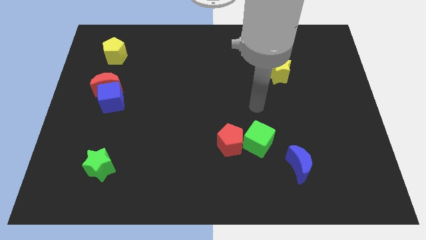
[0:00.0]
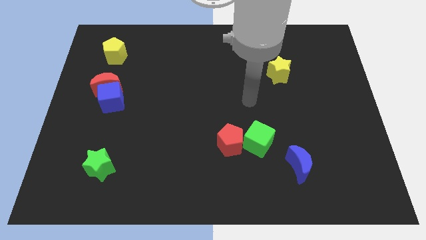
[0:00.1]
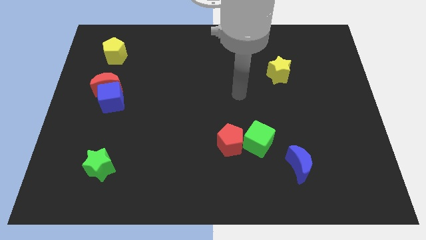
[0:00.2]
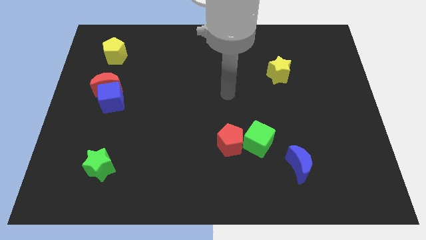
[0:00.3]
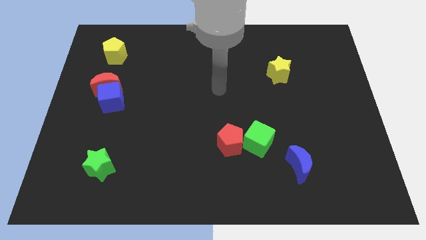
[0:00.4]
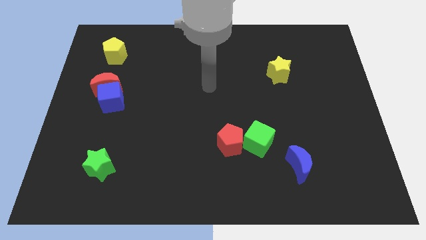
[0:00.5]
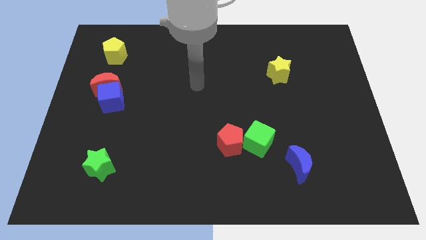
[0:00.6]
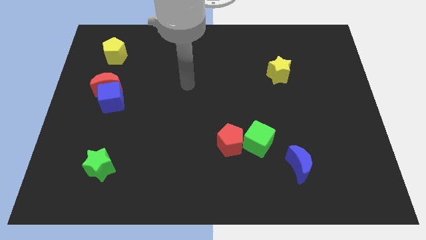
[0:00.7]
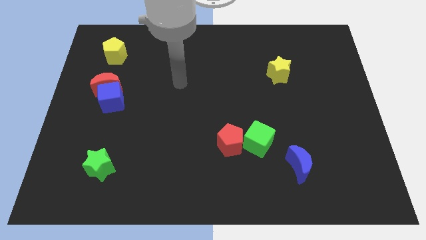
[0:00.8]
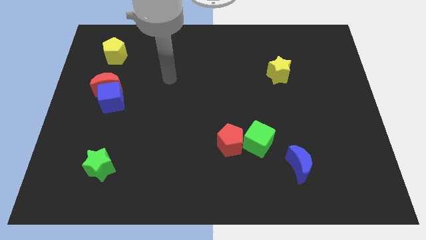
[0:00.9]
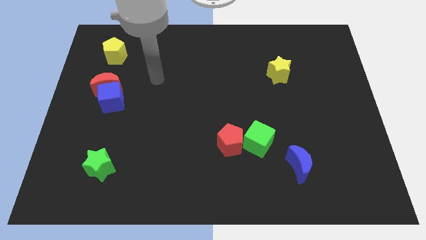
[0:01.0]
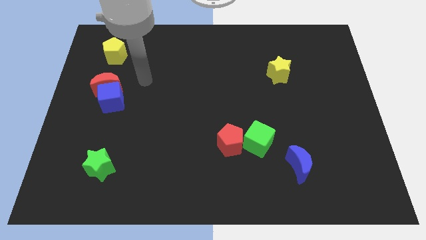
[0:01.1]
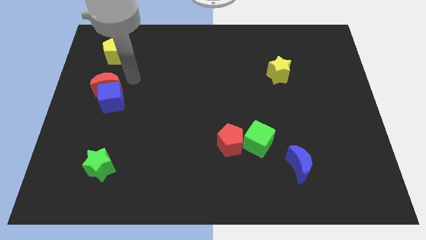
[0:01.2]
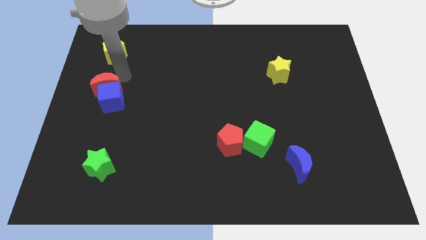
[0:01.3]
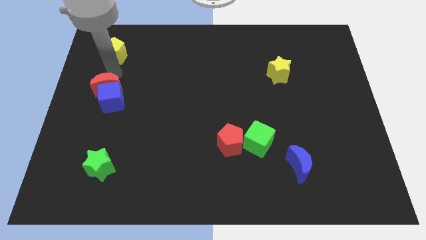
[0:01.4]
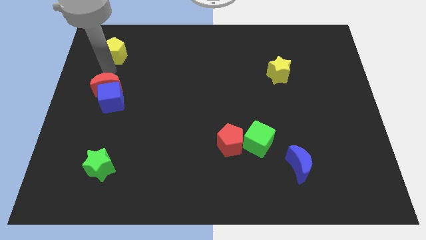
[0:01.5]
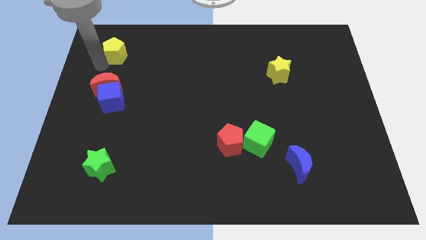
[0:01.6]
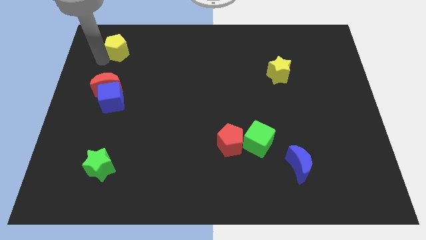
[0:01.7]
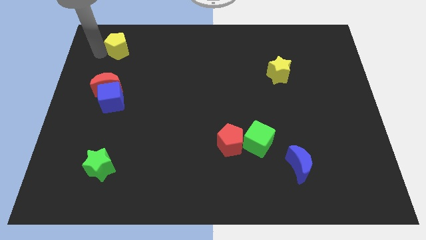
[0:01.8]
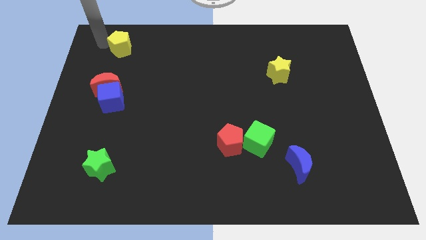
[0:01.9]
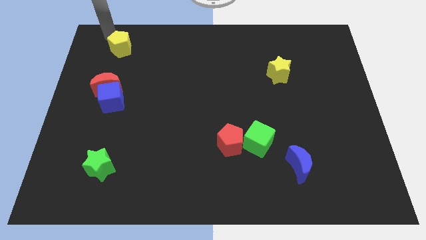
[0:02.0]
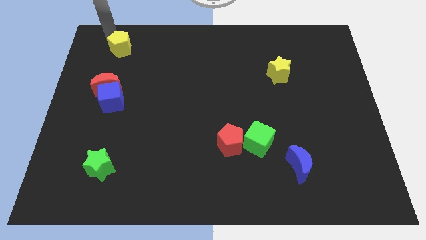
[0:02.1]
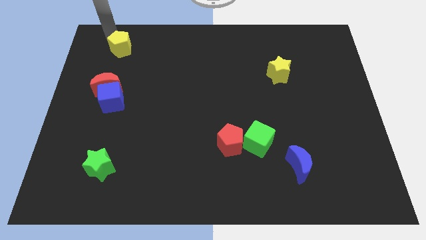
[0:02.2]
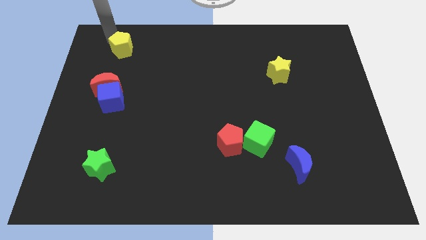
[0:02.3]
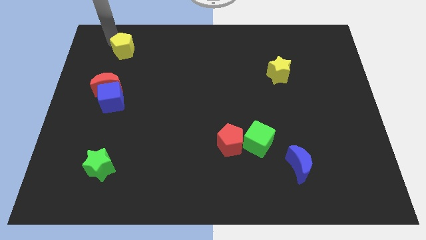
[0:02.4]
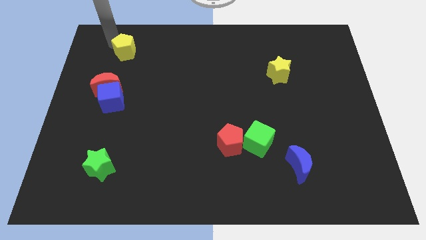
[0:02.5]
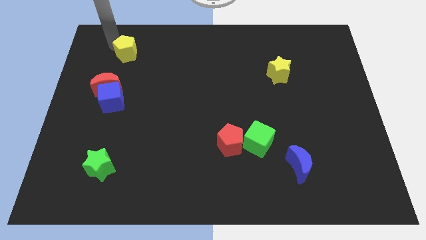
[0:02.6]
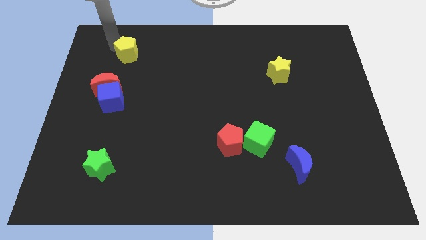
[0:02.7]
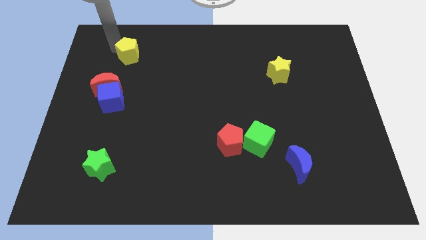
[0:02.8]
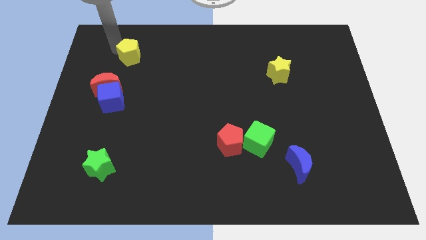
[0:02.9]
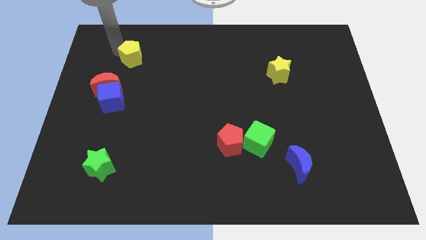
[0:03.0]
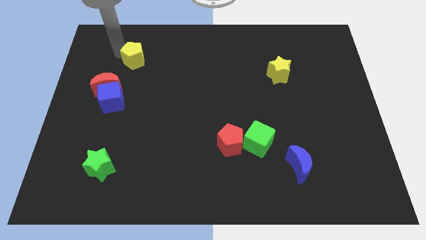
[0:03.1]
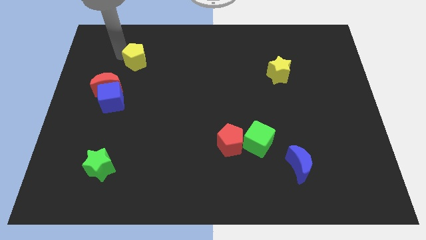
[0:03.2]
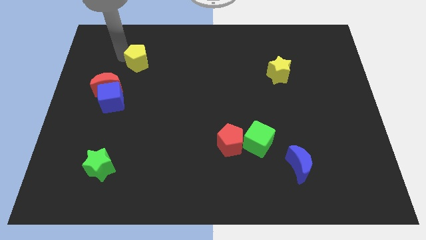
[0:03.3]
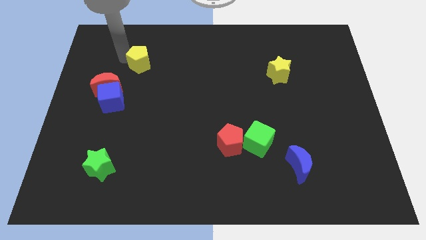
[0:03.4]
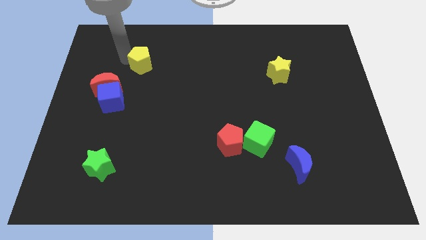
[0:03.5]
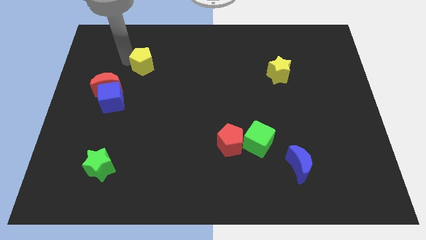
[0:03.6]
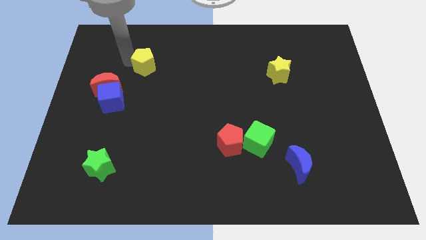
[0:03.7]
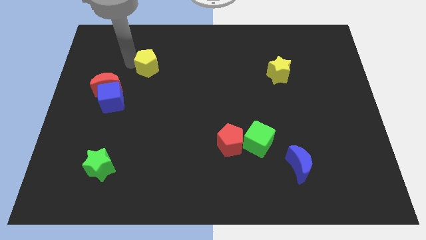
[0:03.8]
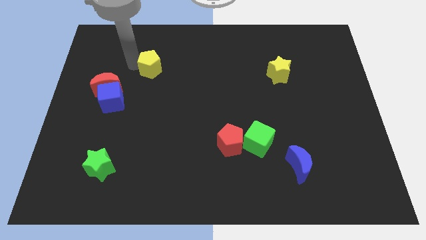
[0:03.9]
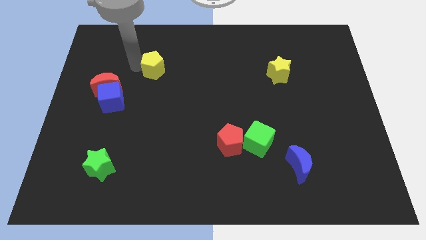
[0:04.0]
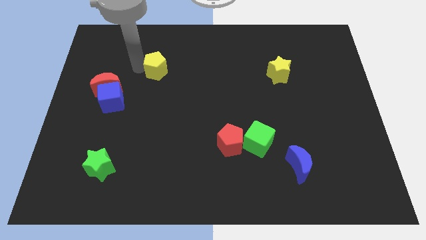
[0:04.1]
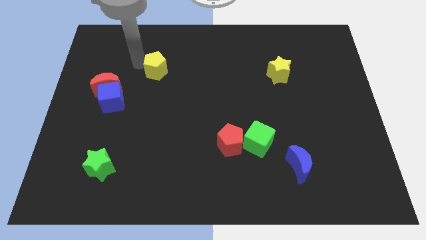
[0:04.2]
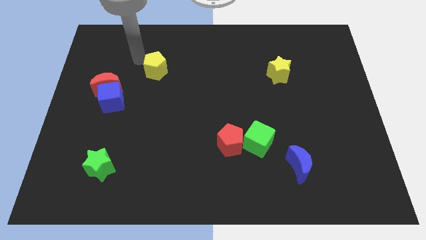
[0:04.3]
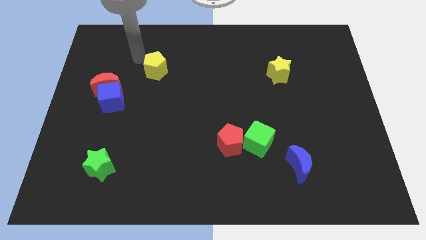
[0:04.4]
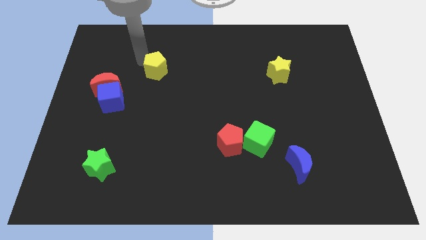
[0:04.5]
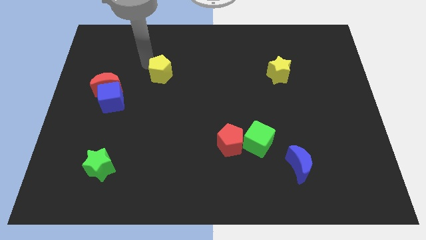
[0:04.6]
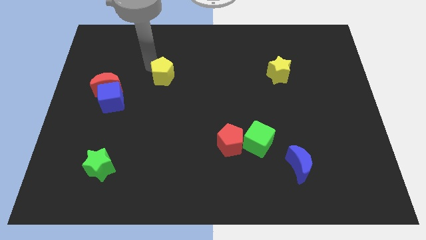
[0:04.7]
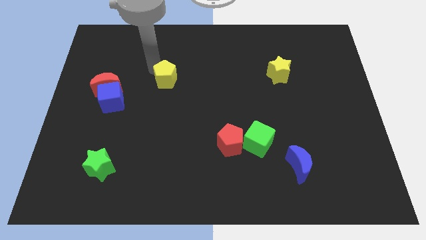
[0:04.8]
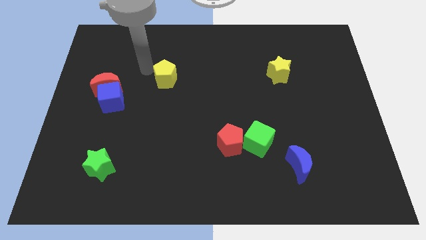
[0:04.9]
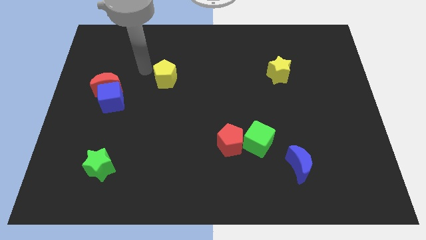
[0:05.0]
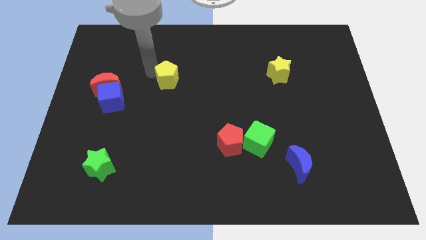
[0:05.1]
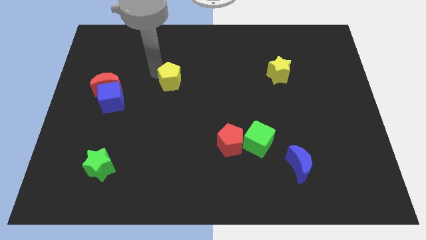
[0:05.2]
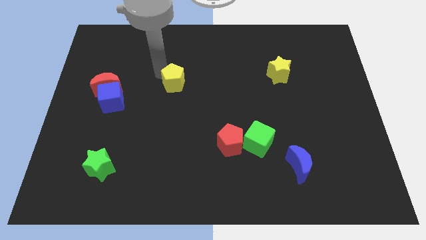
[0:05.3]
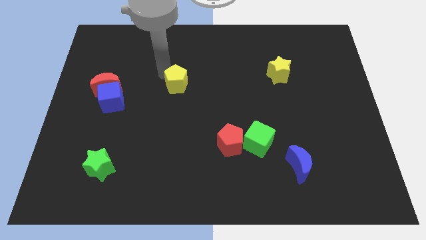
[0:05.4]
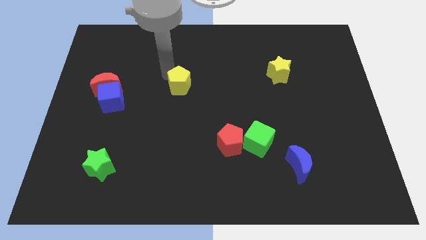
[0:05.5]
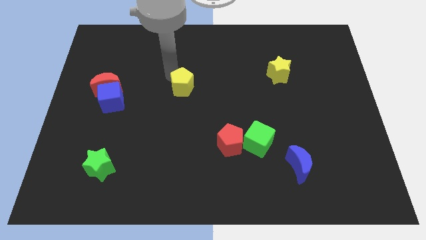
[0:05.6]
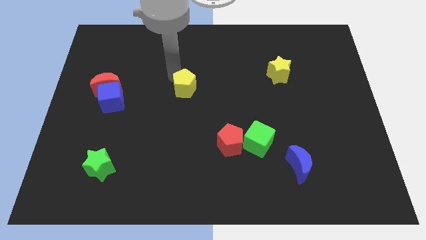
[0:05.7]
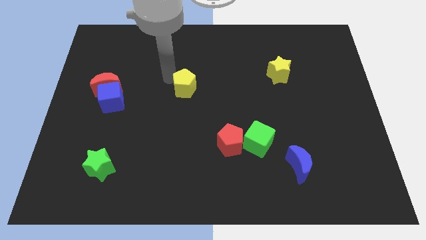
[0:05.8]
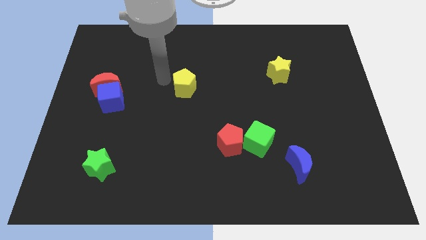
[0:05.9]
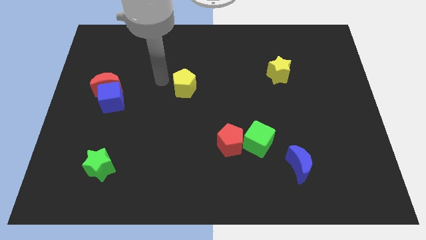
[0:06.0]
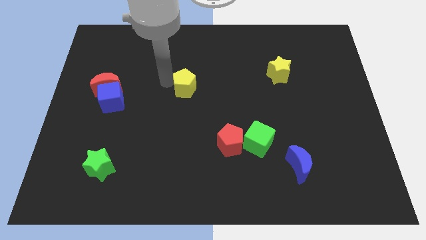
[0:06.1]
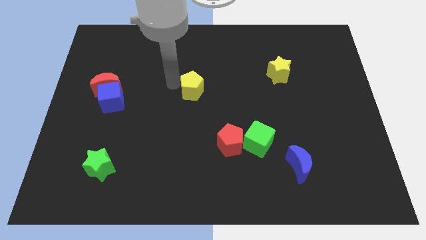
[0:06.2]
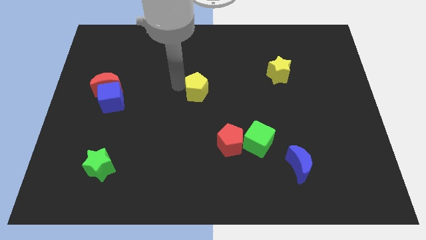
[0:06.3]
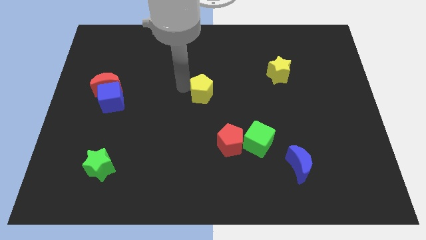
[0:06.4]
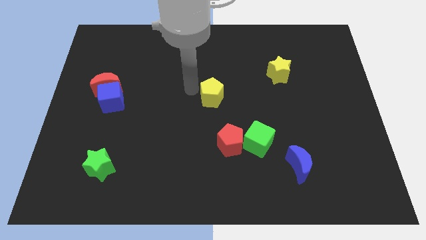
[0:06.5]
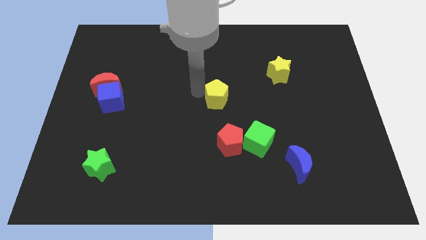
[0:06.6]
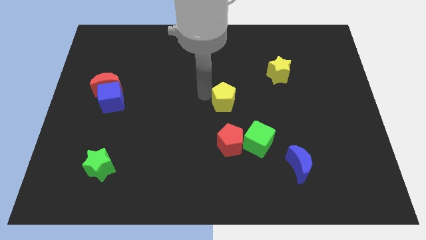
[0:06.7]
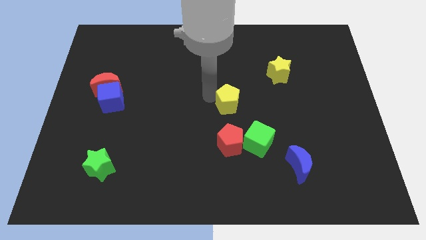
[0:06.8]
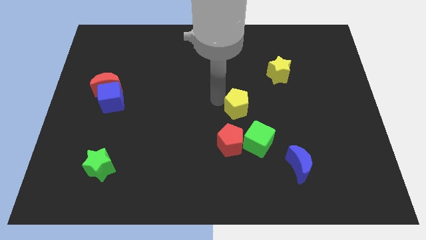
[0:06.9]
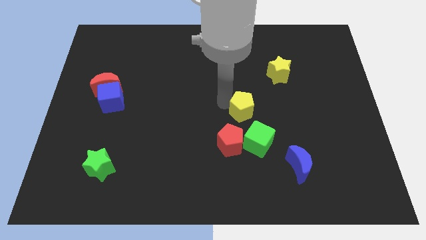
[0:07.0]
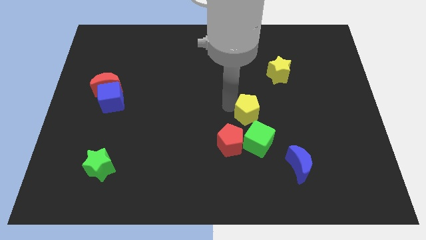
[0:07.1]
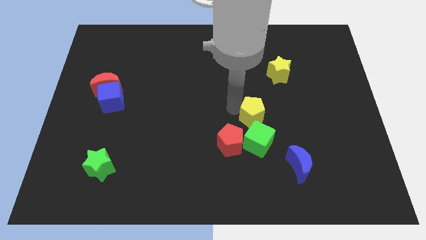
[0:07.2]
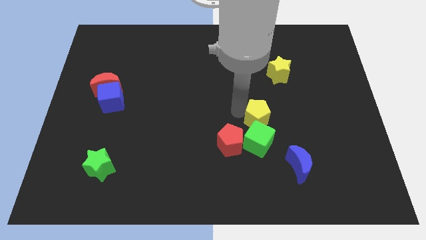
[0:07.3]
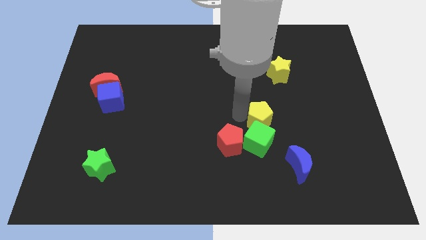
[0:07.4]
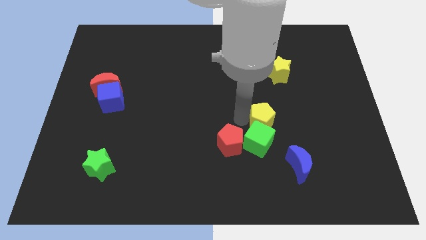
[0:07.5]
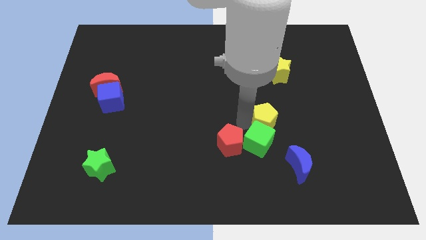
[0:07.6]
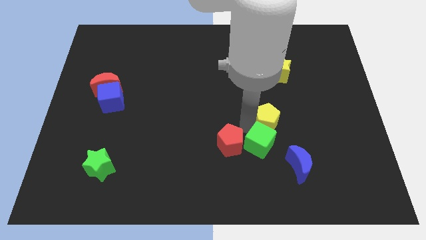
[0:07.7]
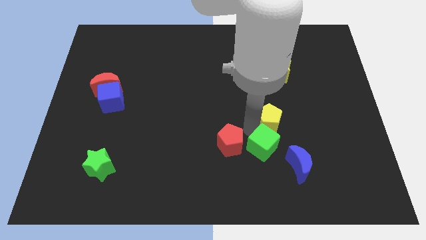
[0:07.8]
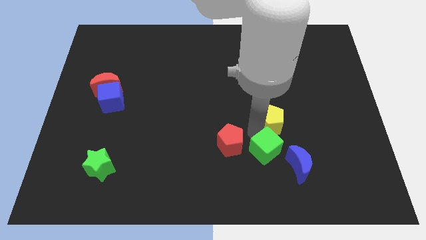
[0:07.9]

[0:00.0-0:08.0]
push the yellow pentagon above the blue moon
